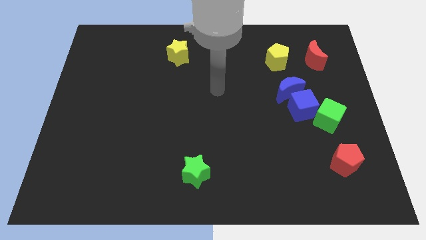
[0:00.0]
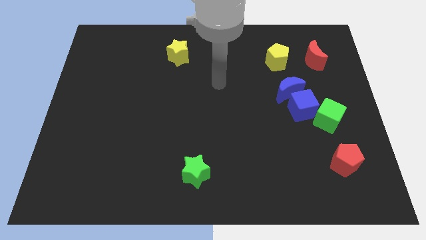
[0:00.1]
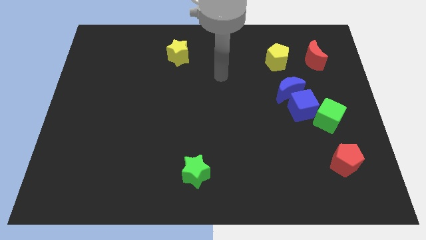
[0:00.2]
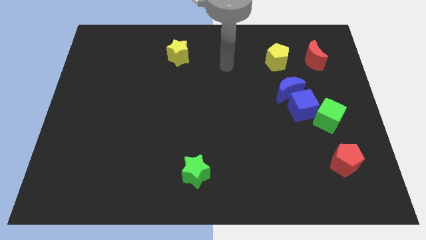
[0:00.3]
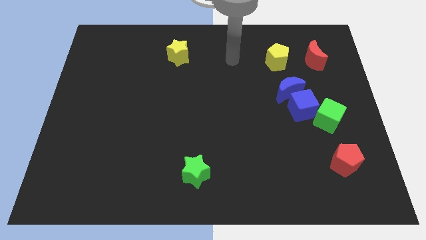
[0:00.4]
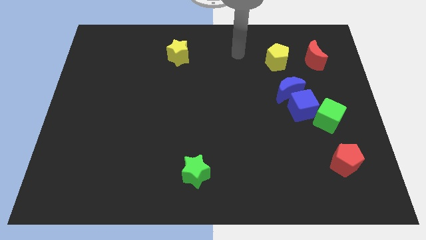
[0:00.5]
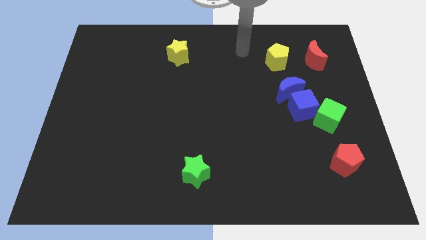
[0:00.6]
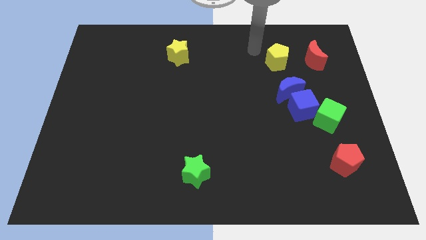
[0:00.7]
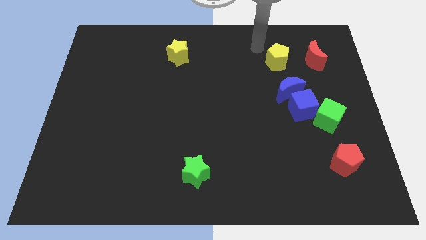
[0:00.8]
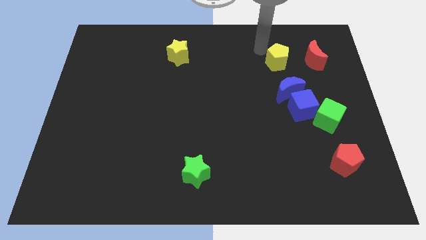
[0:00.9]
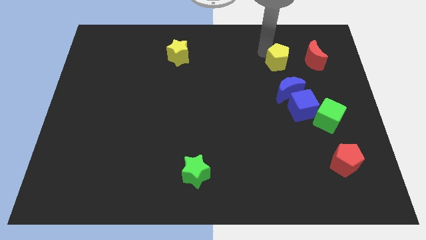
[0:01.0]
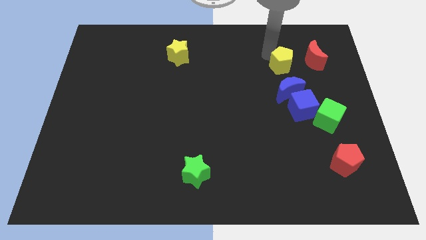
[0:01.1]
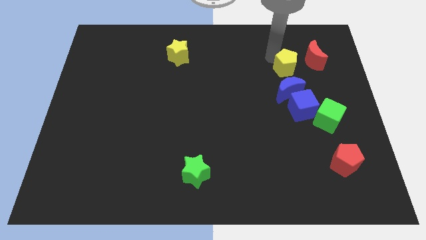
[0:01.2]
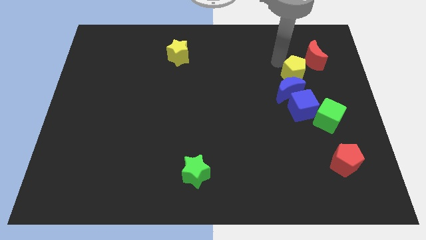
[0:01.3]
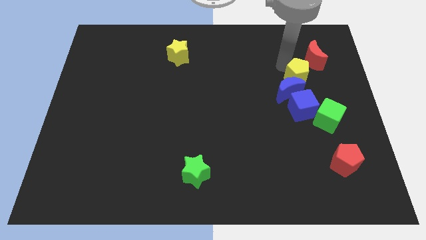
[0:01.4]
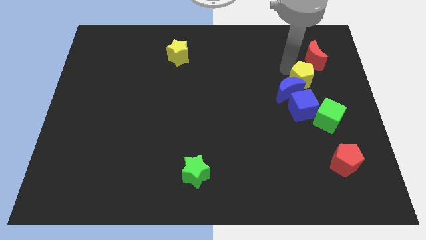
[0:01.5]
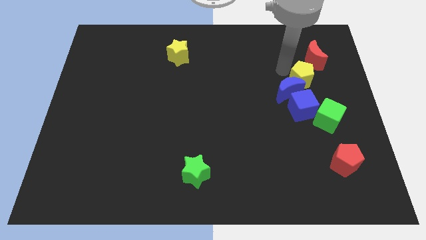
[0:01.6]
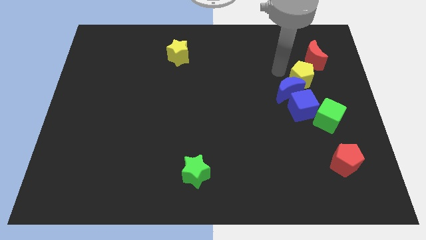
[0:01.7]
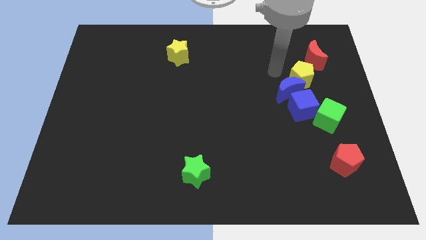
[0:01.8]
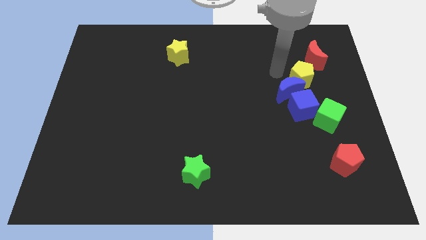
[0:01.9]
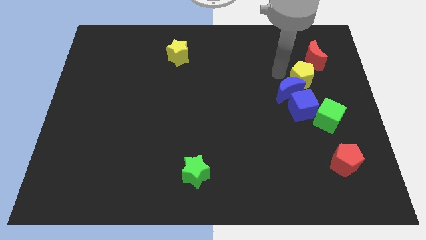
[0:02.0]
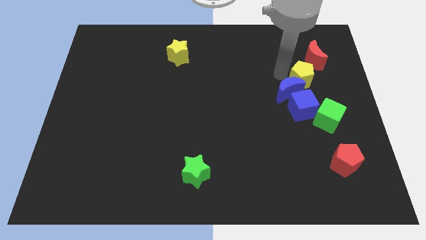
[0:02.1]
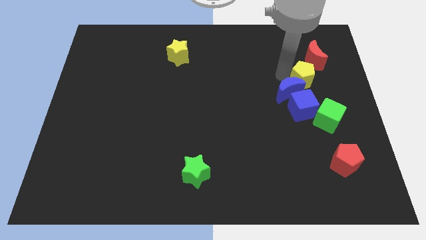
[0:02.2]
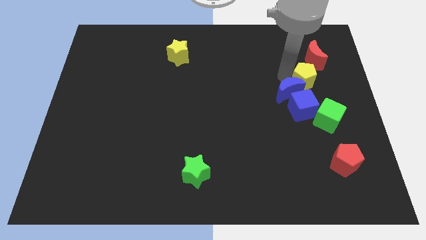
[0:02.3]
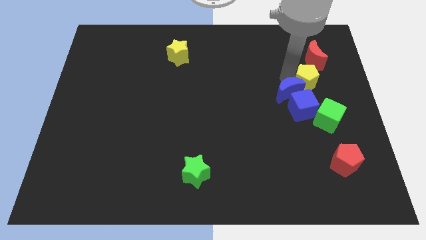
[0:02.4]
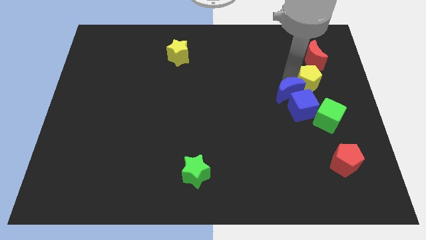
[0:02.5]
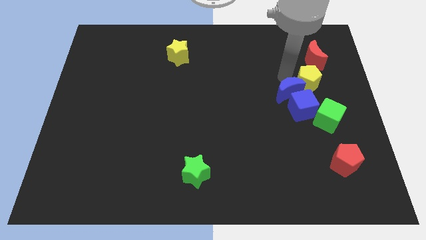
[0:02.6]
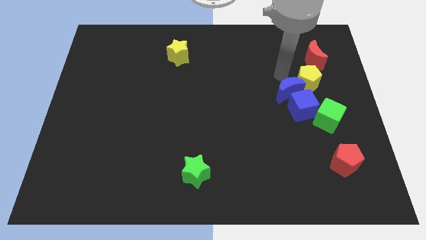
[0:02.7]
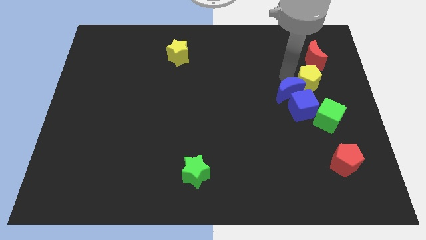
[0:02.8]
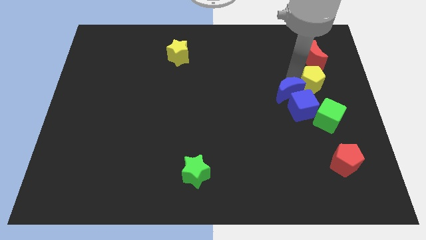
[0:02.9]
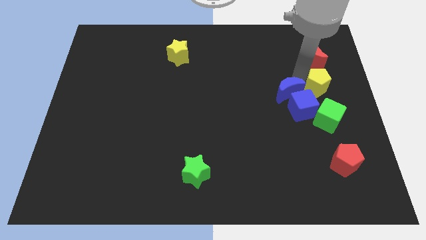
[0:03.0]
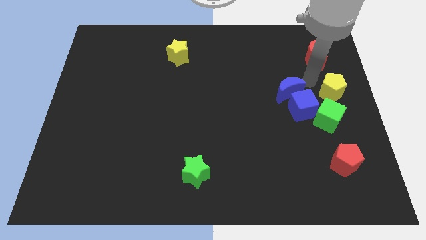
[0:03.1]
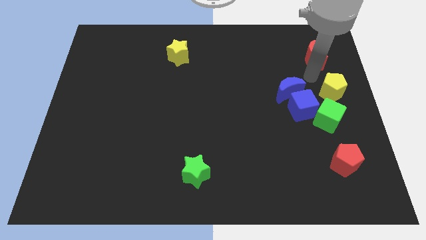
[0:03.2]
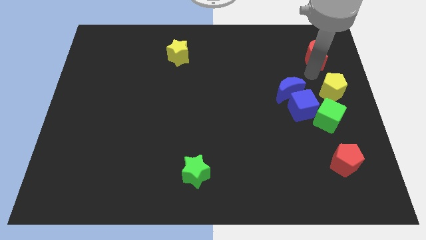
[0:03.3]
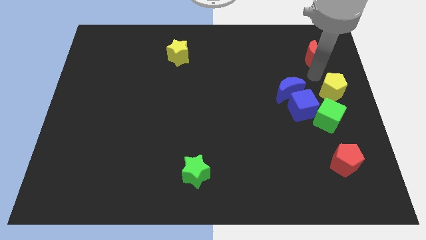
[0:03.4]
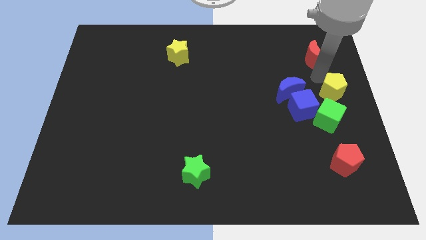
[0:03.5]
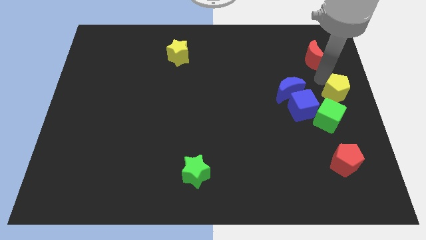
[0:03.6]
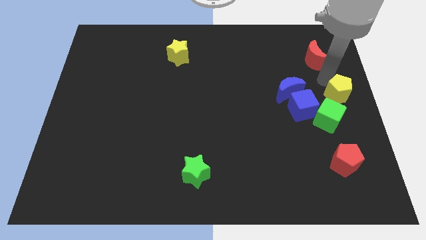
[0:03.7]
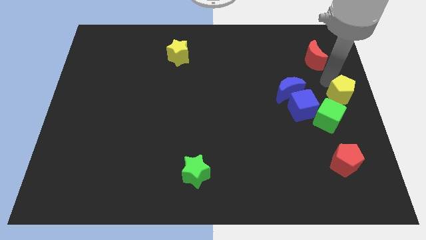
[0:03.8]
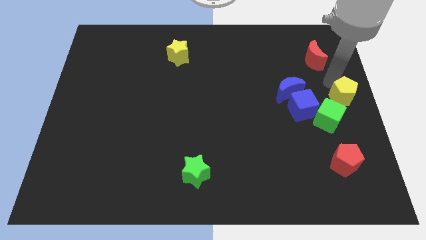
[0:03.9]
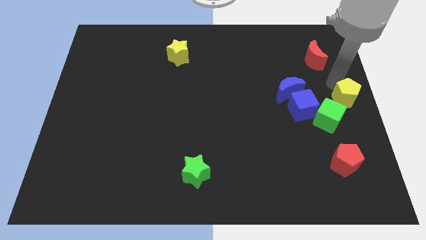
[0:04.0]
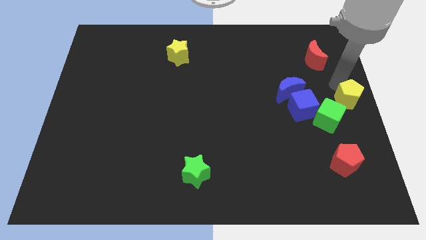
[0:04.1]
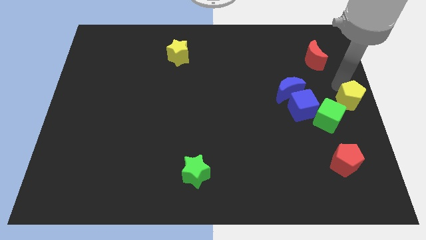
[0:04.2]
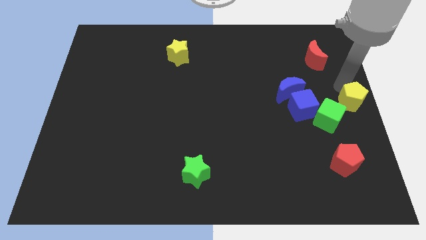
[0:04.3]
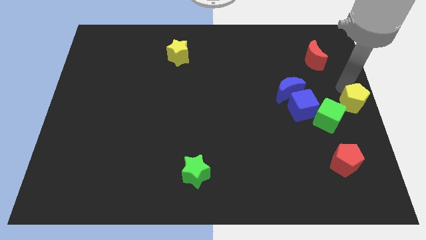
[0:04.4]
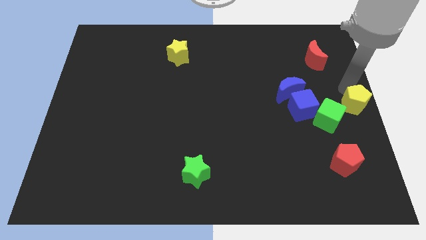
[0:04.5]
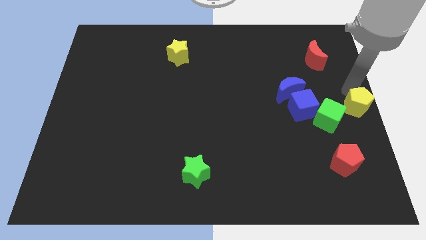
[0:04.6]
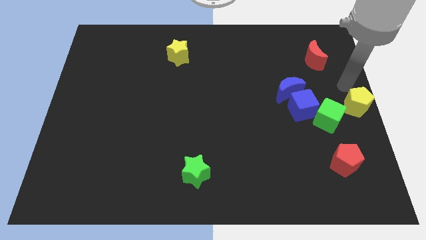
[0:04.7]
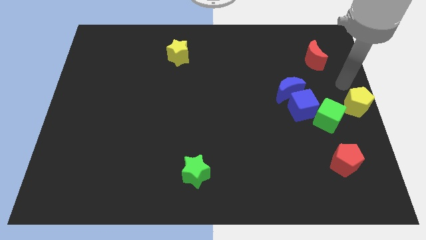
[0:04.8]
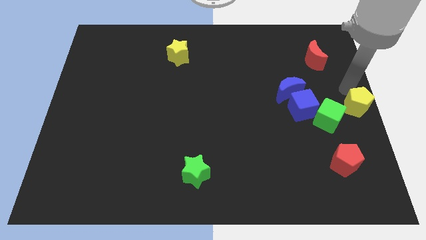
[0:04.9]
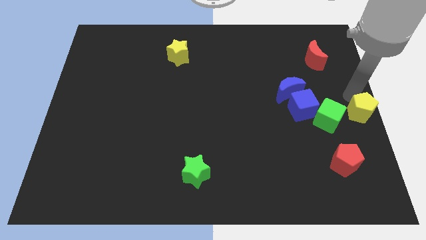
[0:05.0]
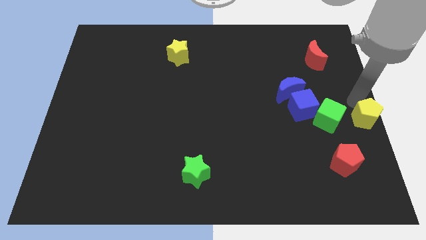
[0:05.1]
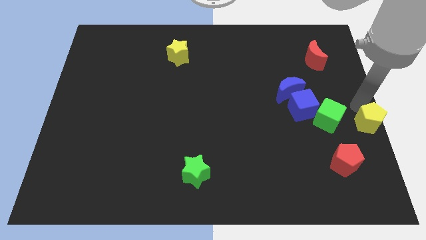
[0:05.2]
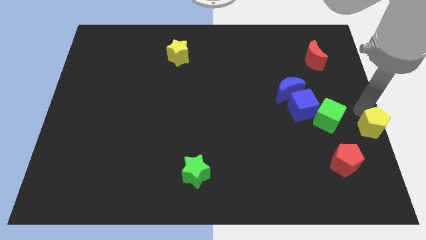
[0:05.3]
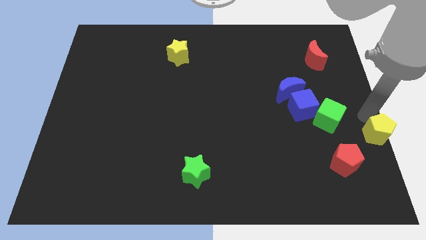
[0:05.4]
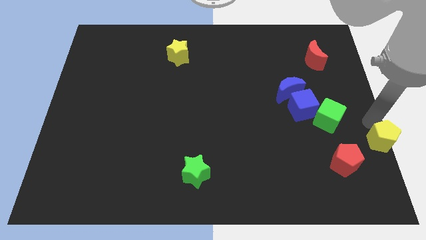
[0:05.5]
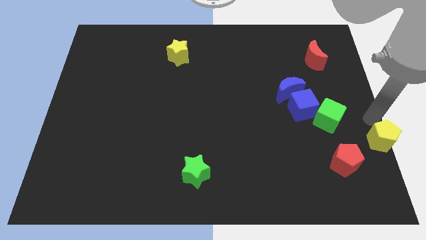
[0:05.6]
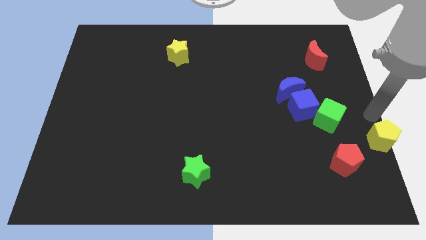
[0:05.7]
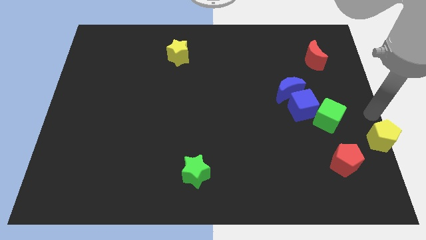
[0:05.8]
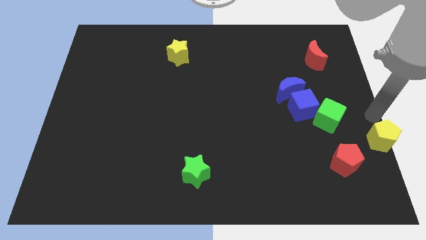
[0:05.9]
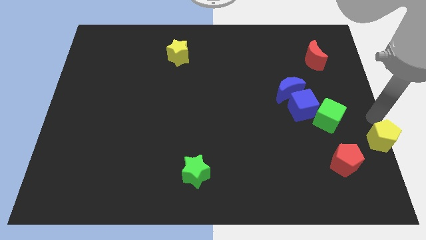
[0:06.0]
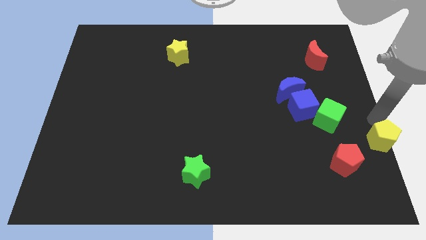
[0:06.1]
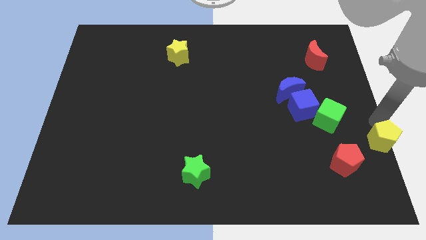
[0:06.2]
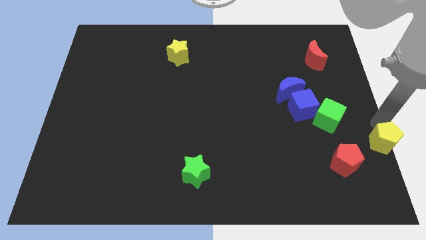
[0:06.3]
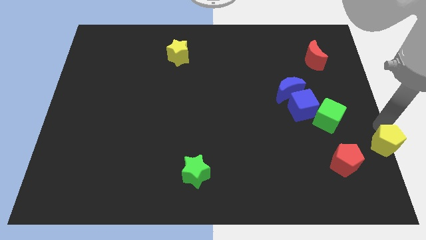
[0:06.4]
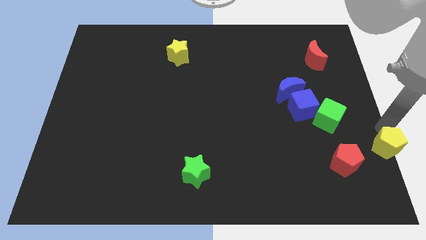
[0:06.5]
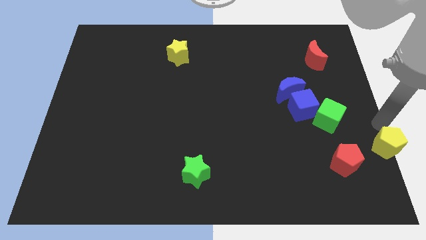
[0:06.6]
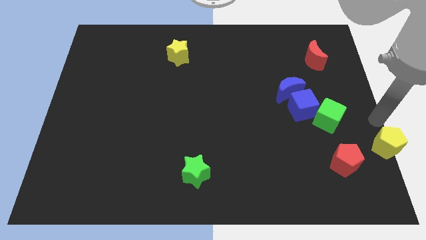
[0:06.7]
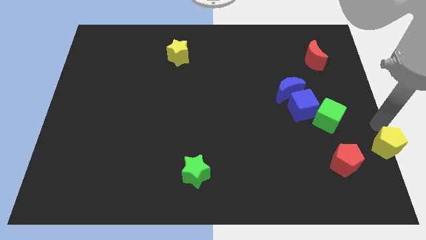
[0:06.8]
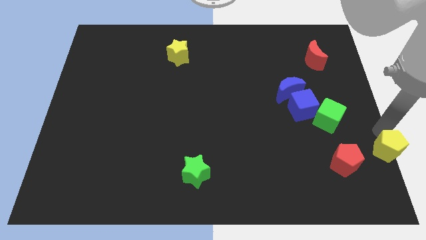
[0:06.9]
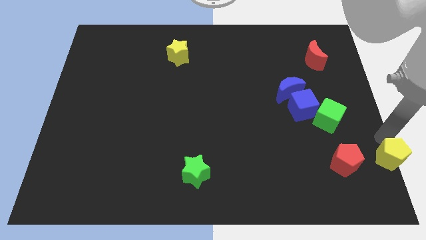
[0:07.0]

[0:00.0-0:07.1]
put the yellow pentagon to the bottom right of the board
